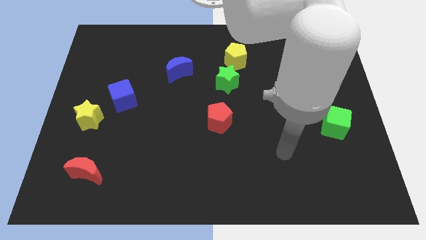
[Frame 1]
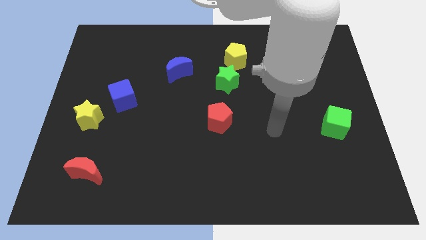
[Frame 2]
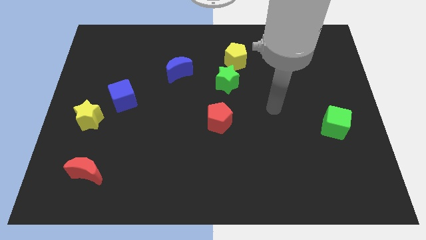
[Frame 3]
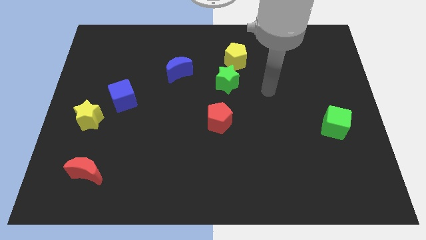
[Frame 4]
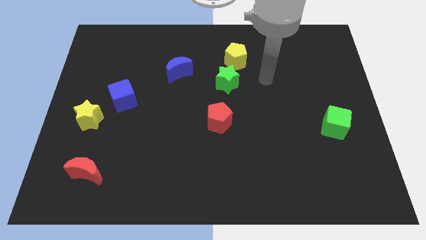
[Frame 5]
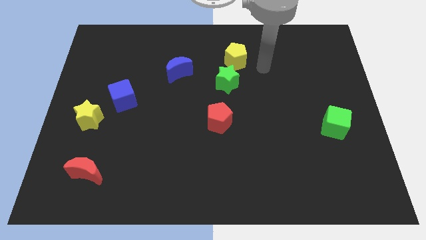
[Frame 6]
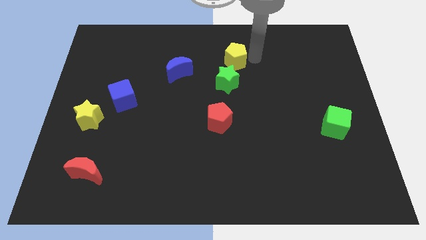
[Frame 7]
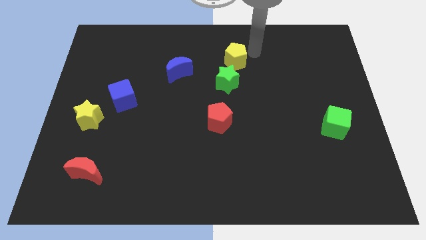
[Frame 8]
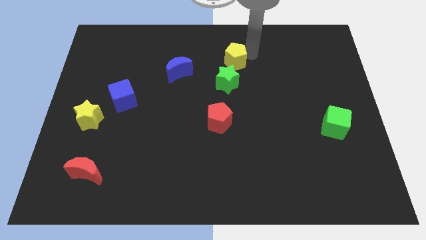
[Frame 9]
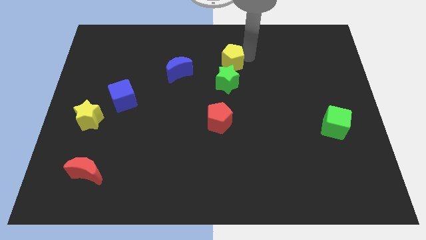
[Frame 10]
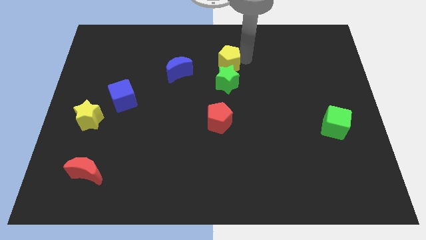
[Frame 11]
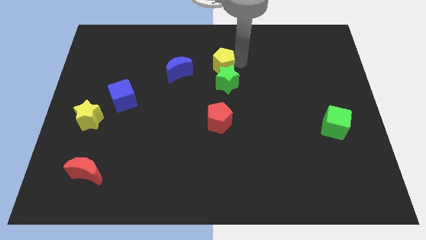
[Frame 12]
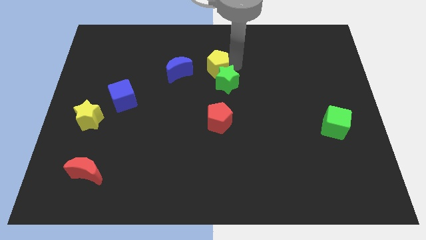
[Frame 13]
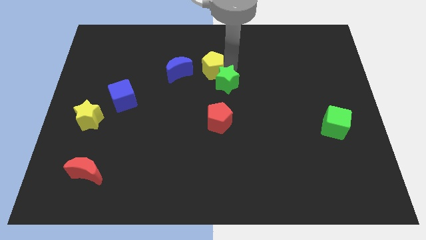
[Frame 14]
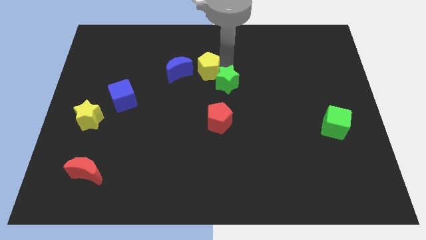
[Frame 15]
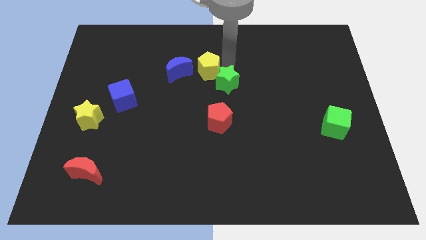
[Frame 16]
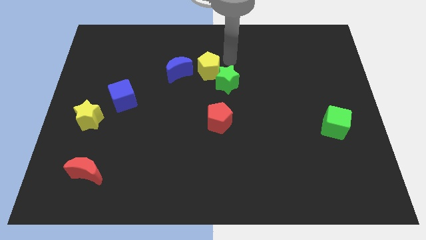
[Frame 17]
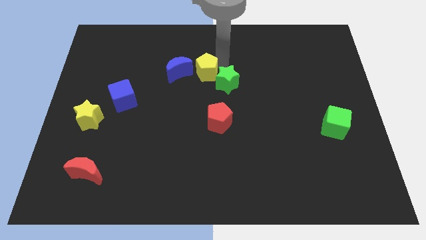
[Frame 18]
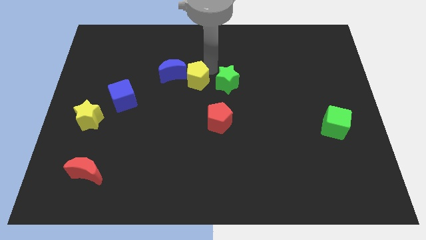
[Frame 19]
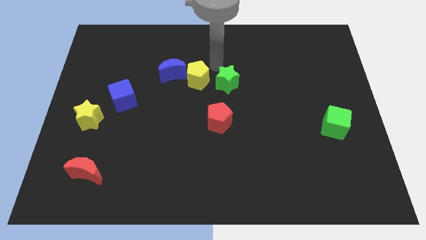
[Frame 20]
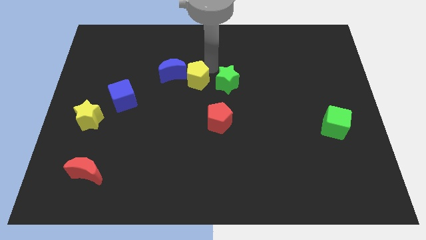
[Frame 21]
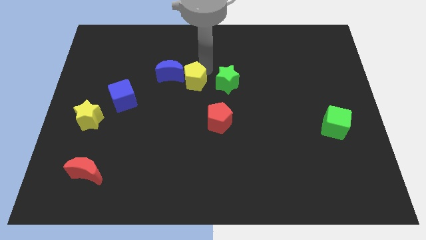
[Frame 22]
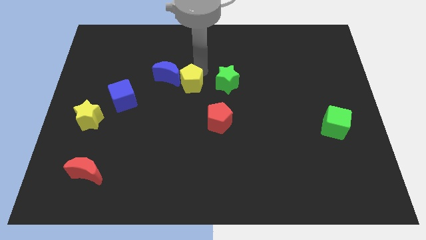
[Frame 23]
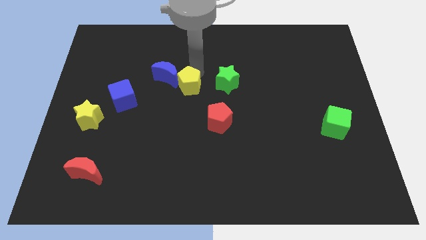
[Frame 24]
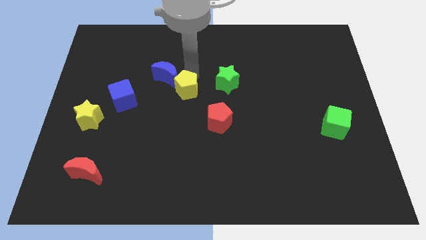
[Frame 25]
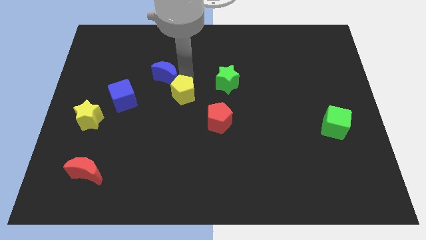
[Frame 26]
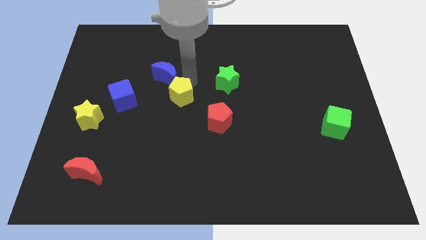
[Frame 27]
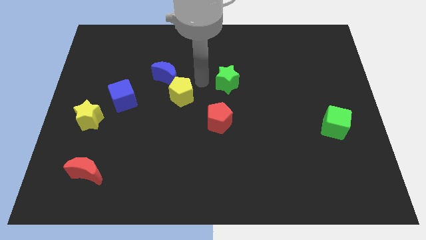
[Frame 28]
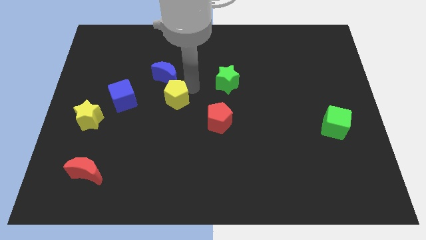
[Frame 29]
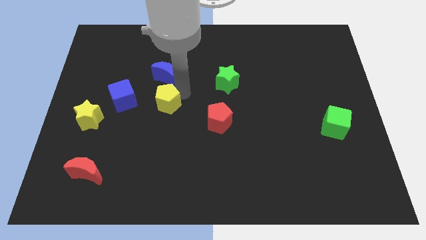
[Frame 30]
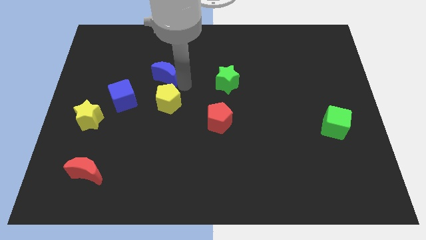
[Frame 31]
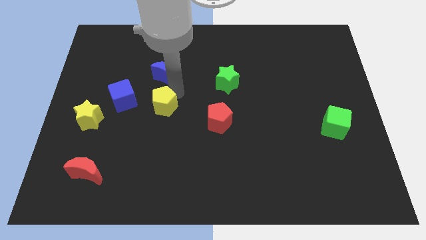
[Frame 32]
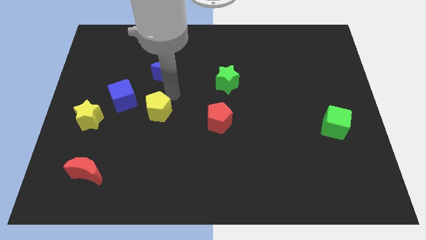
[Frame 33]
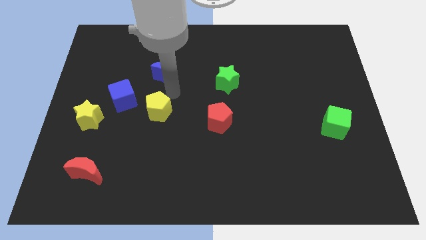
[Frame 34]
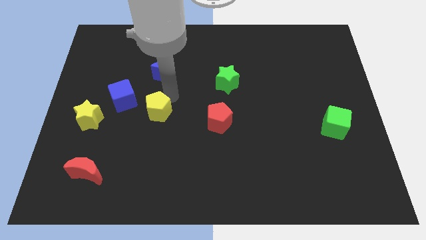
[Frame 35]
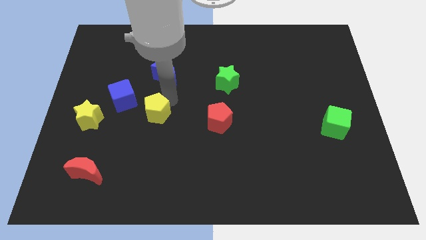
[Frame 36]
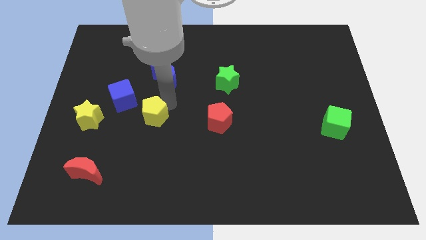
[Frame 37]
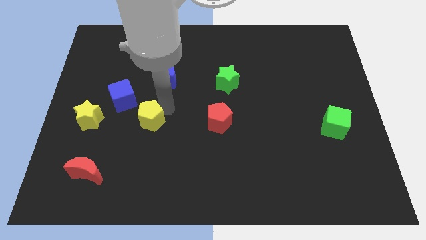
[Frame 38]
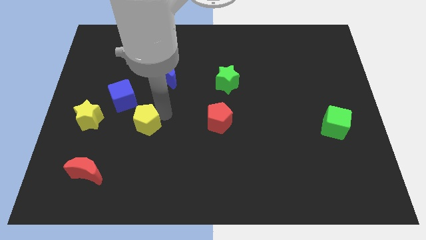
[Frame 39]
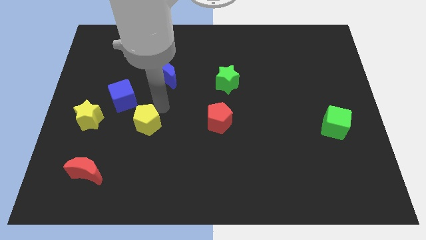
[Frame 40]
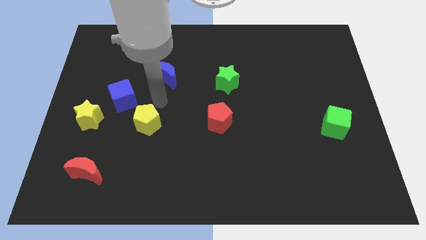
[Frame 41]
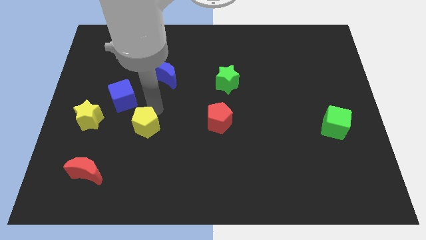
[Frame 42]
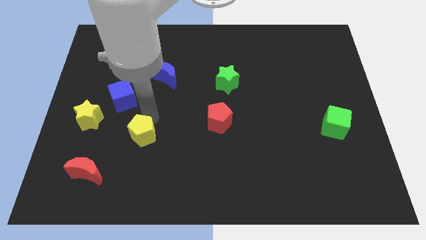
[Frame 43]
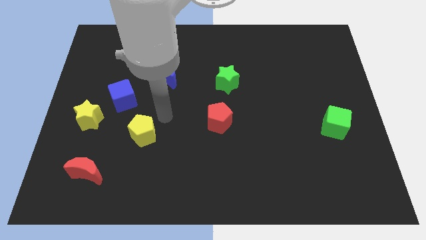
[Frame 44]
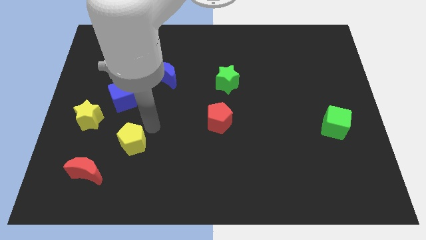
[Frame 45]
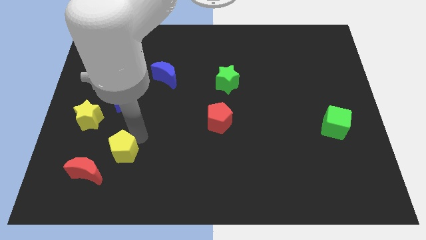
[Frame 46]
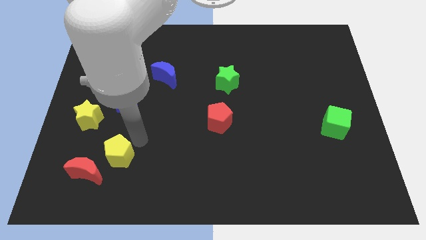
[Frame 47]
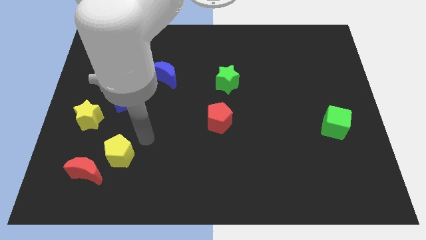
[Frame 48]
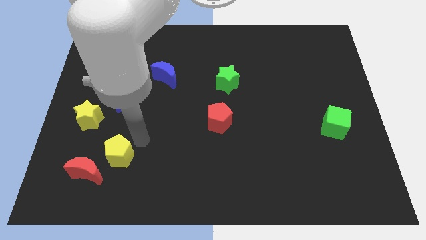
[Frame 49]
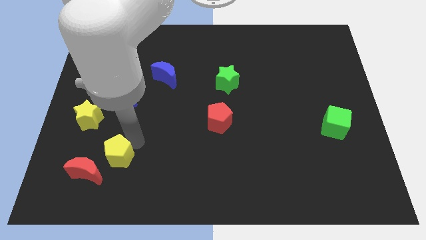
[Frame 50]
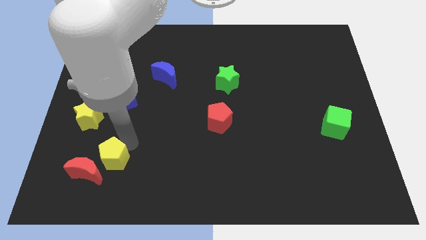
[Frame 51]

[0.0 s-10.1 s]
move the yellow pentagon close to the red moon

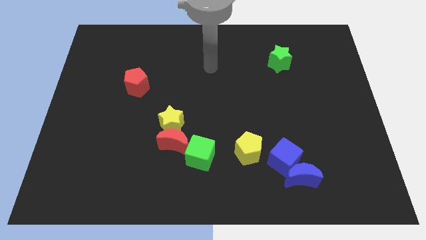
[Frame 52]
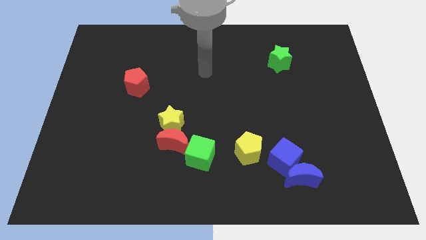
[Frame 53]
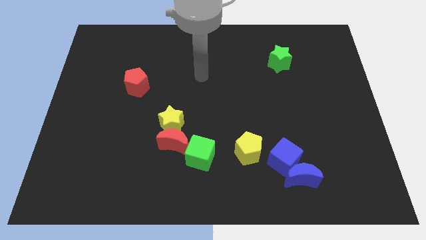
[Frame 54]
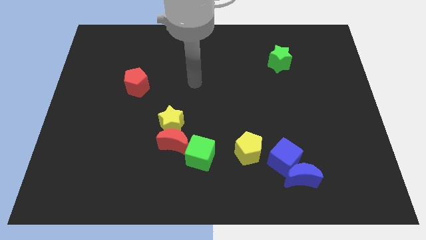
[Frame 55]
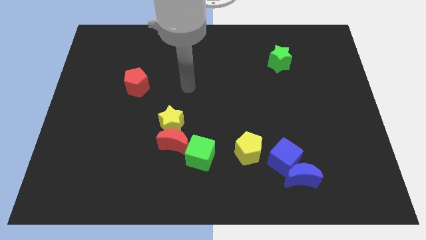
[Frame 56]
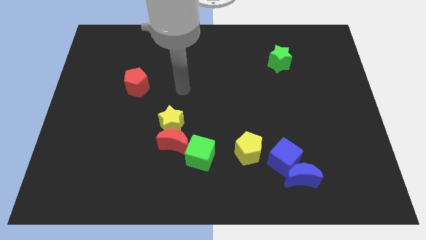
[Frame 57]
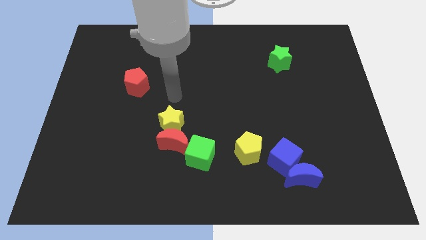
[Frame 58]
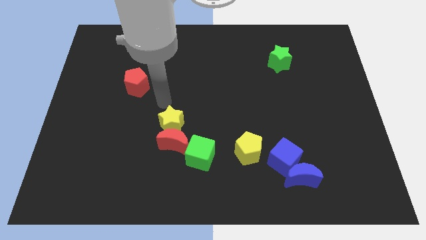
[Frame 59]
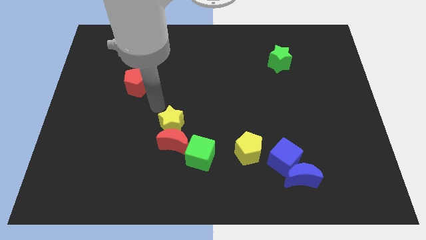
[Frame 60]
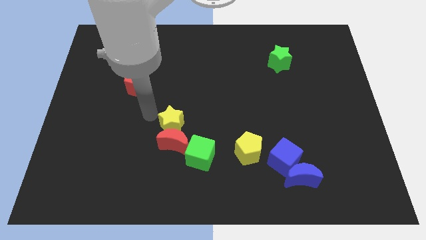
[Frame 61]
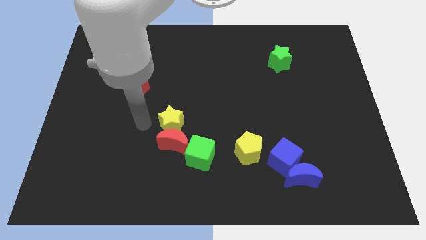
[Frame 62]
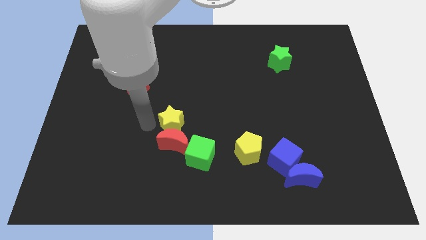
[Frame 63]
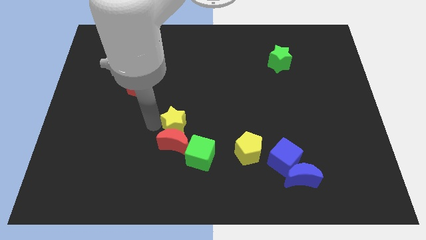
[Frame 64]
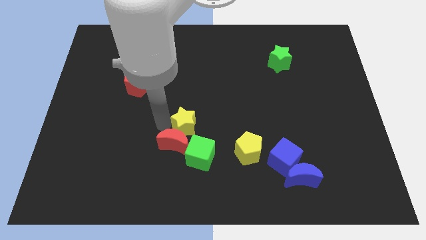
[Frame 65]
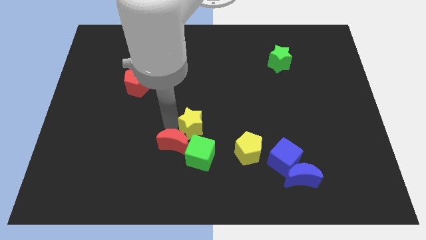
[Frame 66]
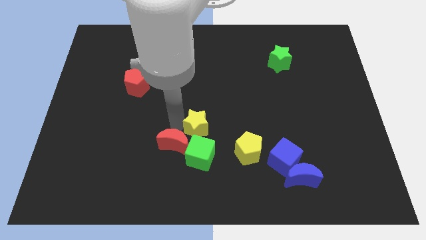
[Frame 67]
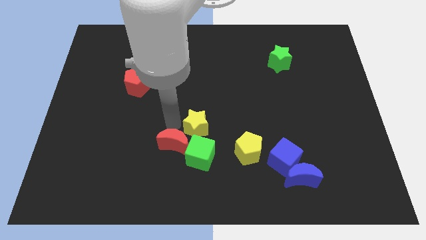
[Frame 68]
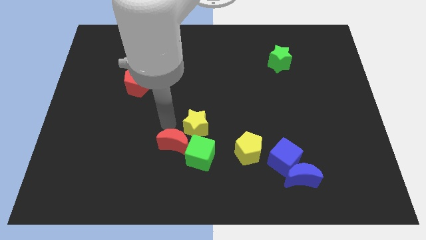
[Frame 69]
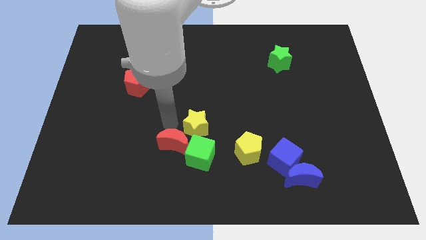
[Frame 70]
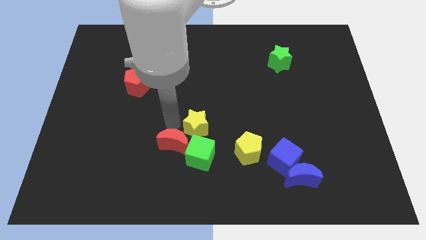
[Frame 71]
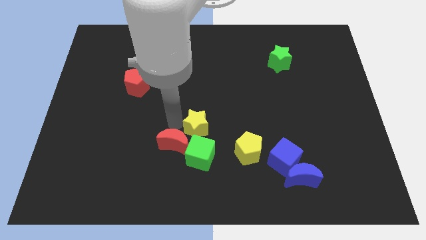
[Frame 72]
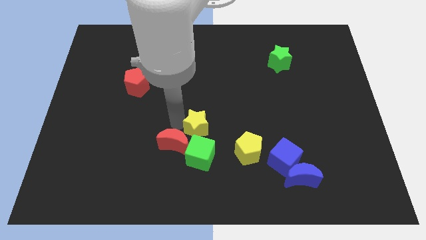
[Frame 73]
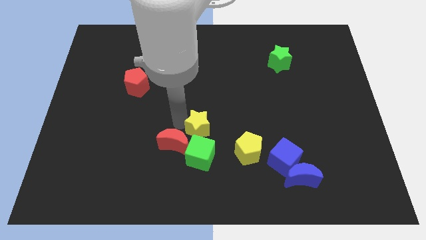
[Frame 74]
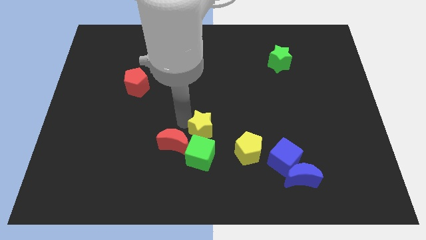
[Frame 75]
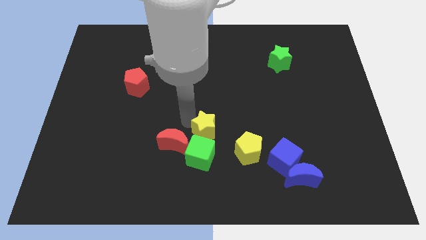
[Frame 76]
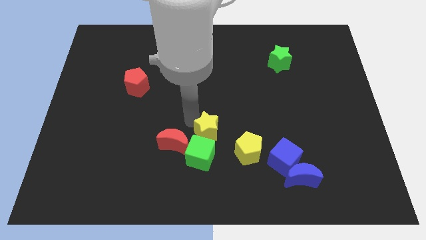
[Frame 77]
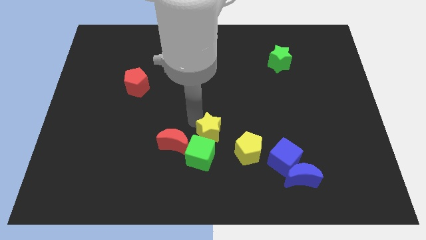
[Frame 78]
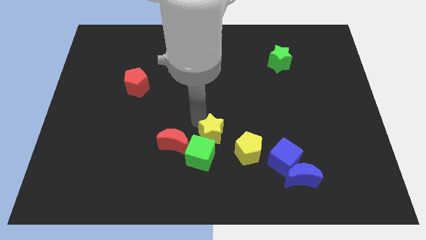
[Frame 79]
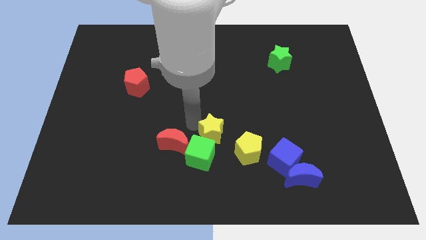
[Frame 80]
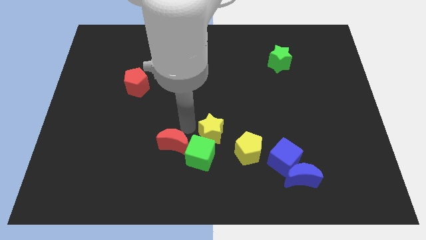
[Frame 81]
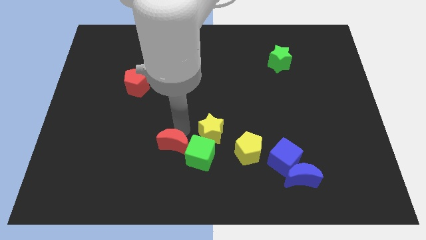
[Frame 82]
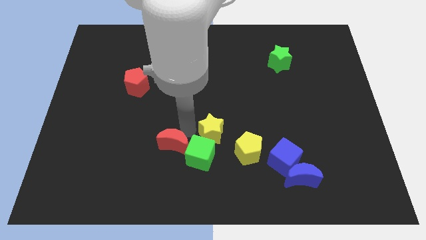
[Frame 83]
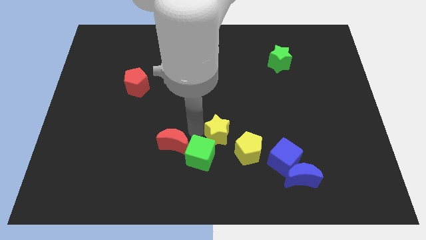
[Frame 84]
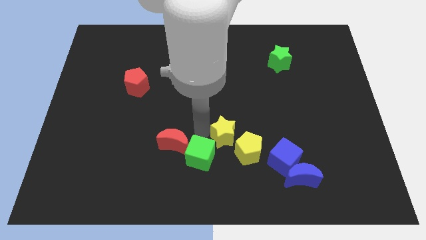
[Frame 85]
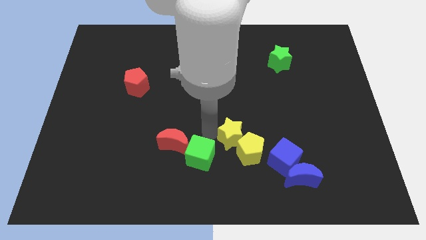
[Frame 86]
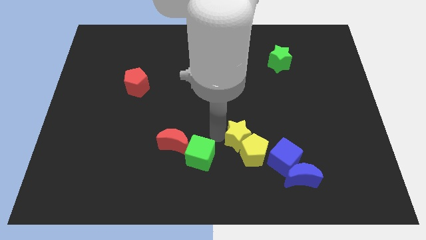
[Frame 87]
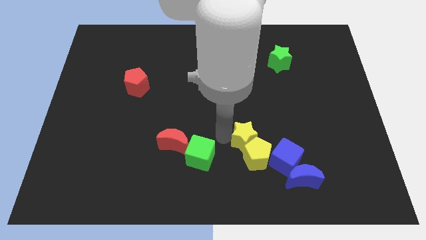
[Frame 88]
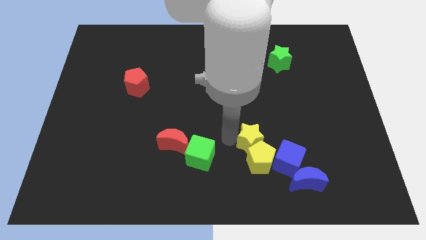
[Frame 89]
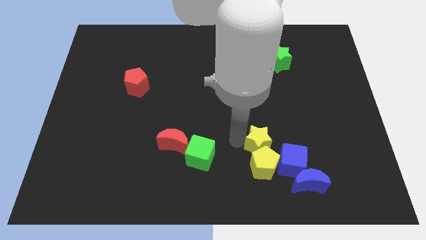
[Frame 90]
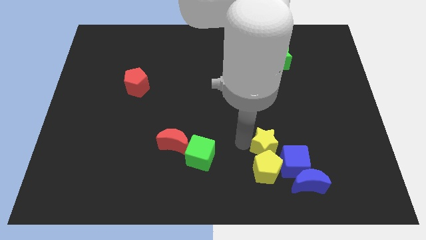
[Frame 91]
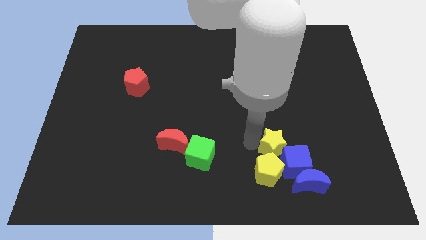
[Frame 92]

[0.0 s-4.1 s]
slide the yellow star to the blue cube
